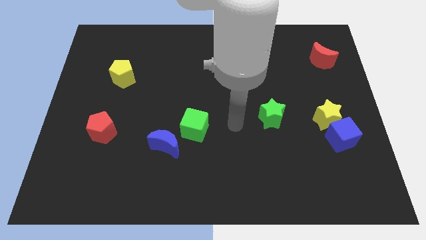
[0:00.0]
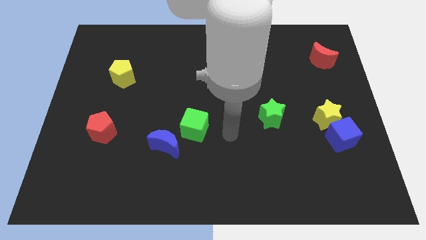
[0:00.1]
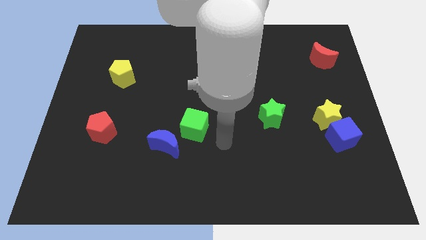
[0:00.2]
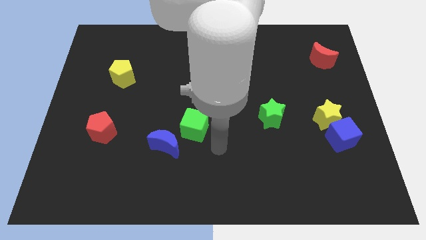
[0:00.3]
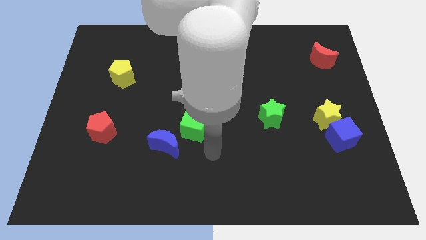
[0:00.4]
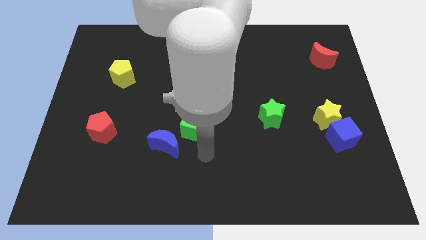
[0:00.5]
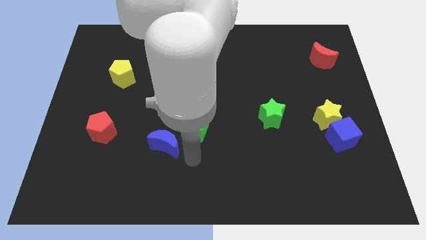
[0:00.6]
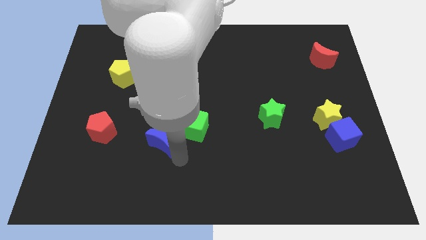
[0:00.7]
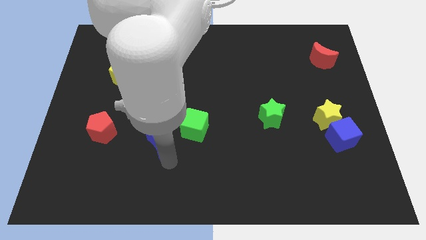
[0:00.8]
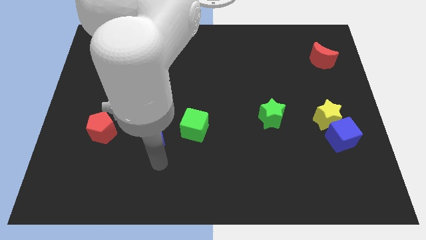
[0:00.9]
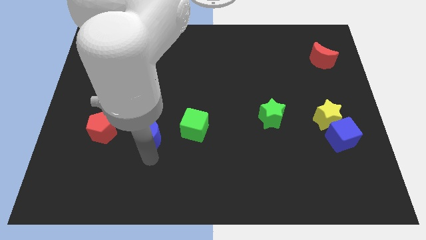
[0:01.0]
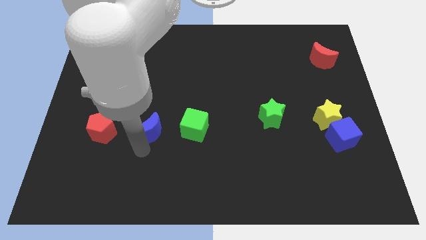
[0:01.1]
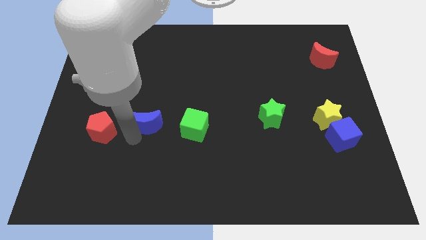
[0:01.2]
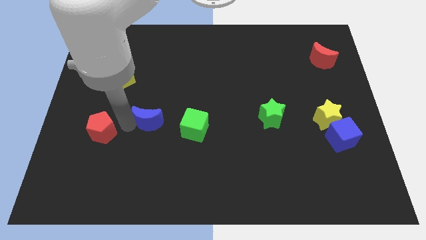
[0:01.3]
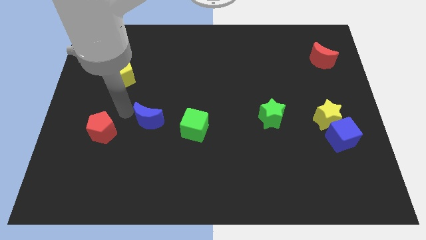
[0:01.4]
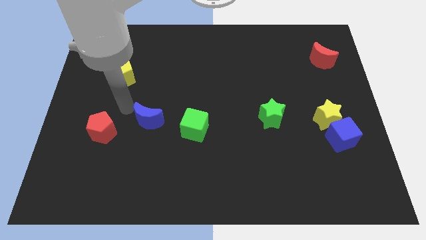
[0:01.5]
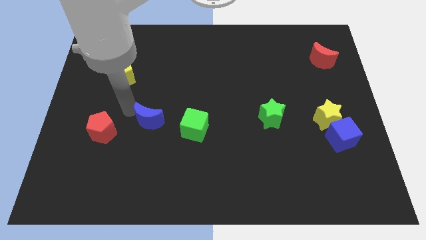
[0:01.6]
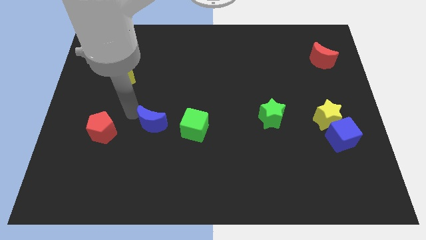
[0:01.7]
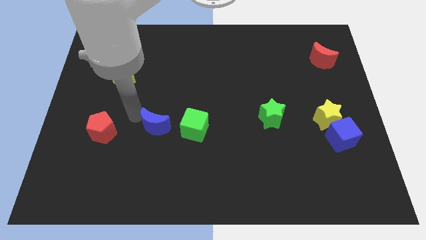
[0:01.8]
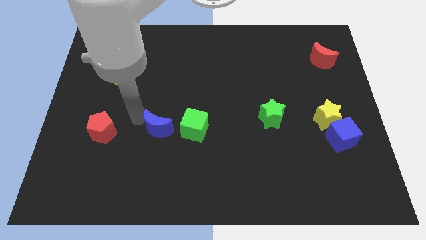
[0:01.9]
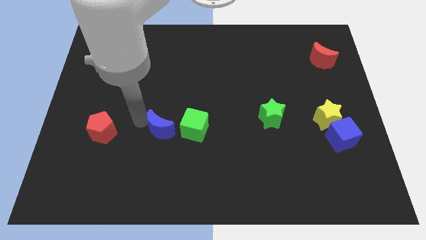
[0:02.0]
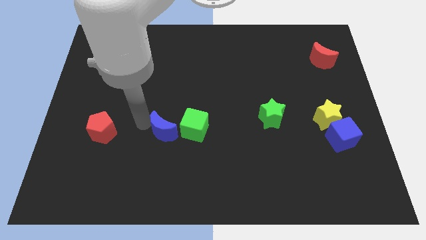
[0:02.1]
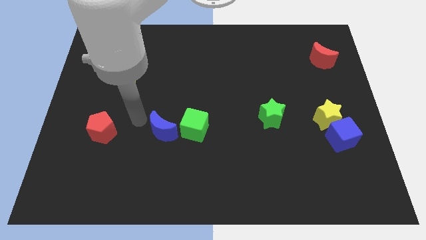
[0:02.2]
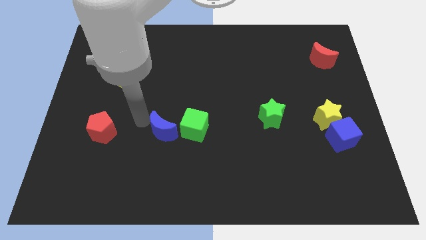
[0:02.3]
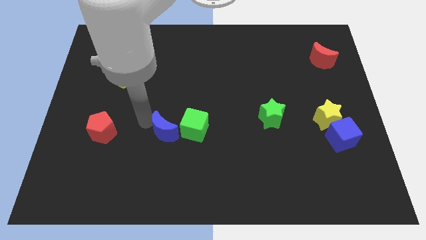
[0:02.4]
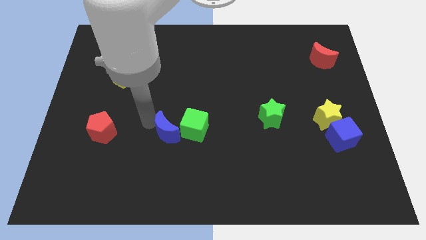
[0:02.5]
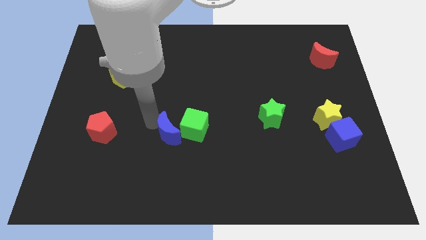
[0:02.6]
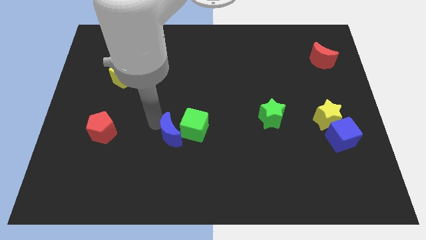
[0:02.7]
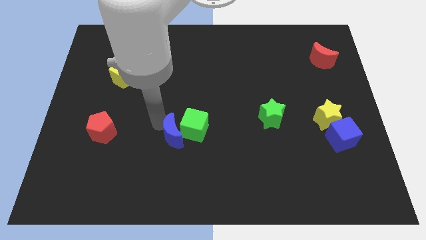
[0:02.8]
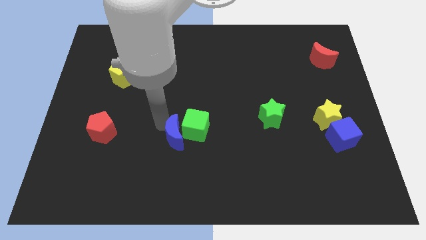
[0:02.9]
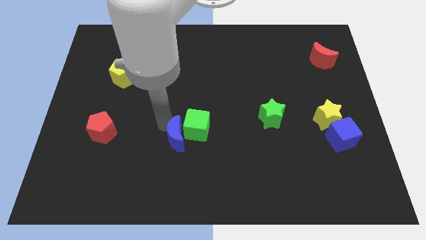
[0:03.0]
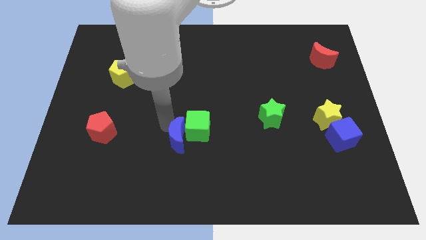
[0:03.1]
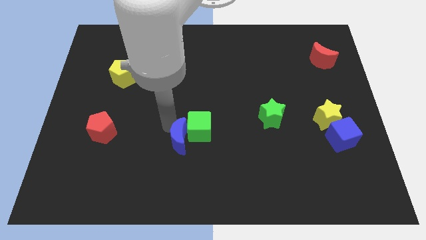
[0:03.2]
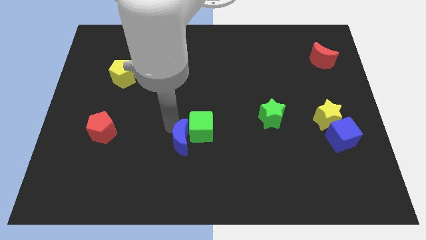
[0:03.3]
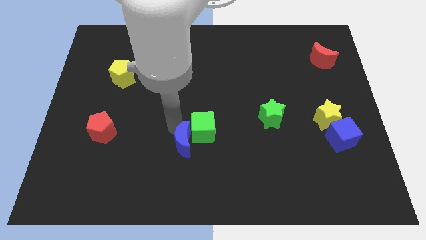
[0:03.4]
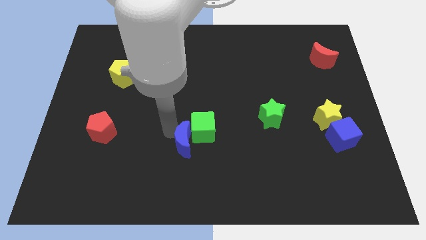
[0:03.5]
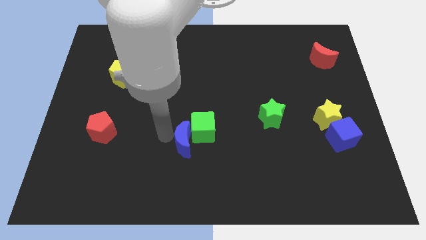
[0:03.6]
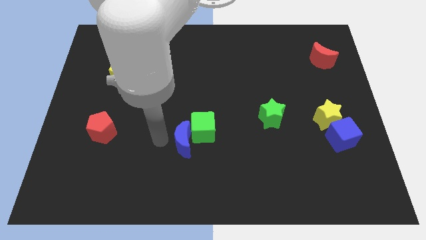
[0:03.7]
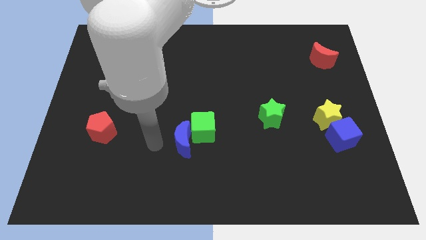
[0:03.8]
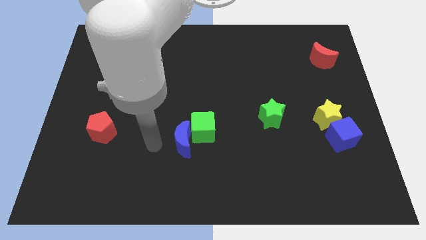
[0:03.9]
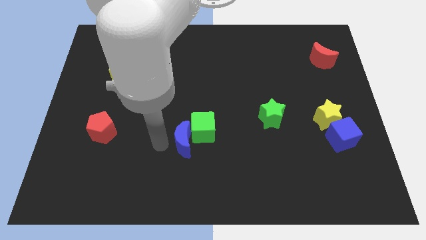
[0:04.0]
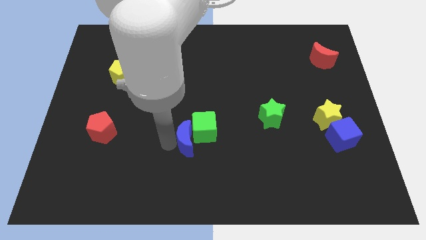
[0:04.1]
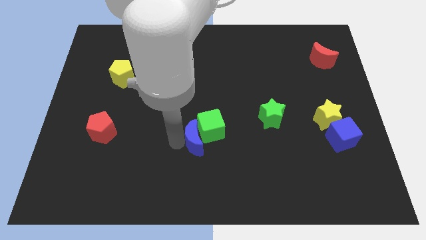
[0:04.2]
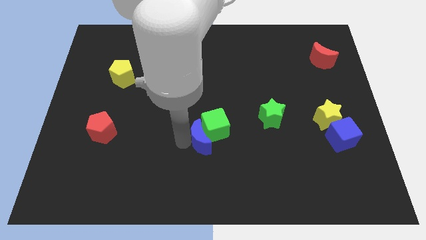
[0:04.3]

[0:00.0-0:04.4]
push the blue moon a little to the right

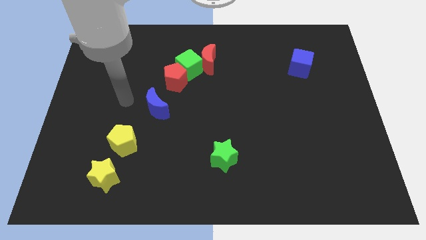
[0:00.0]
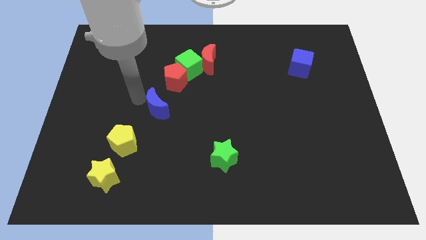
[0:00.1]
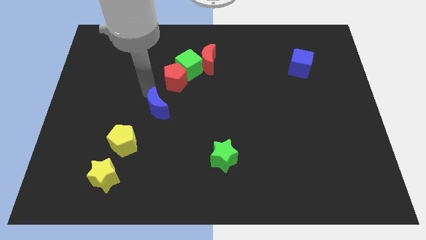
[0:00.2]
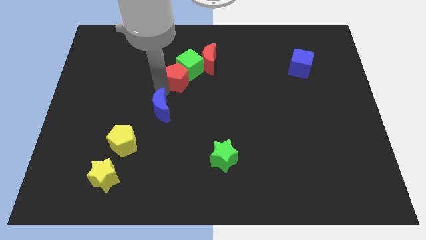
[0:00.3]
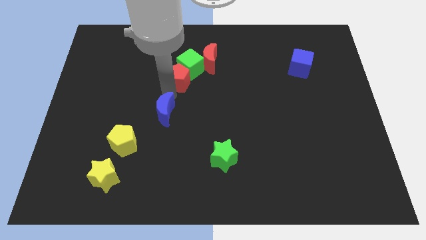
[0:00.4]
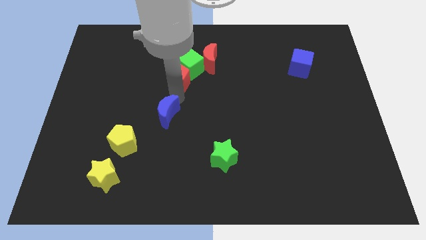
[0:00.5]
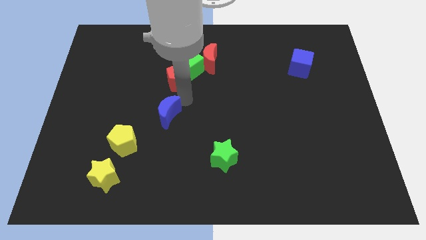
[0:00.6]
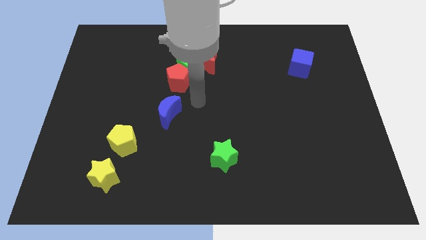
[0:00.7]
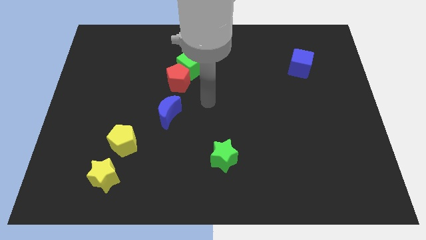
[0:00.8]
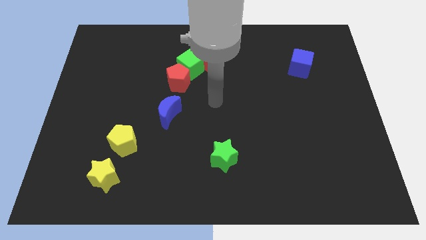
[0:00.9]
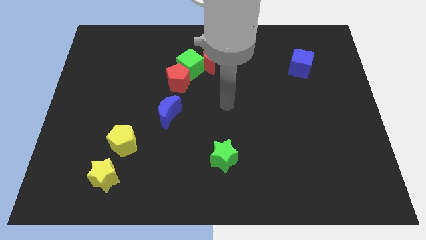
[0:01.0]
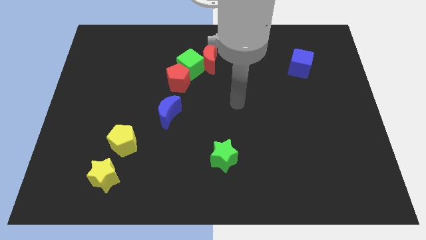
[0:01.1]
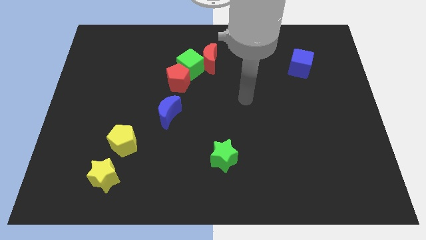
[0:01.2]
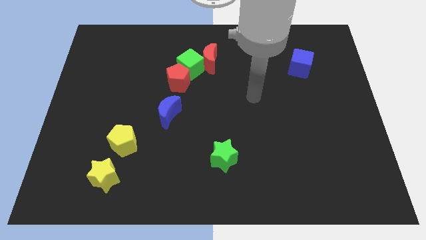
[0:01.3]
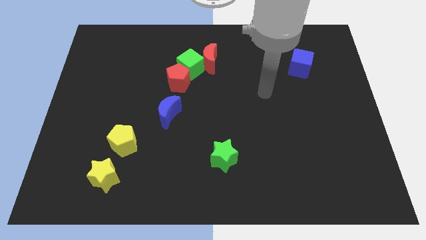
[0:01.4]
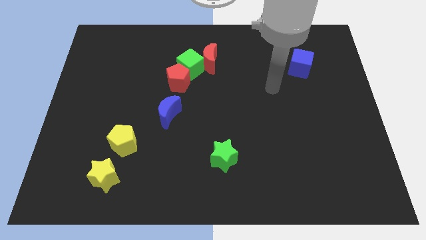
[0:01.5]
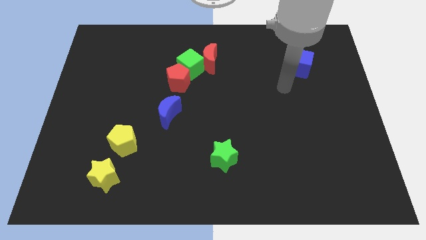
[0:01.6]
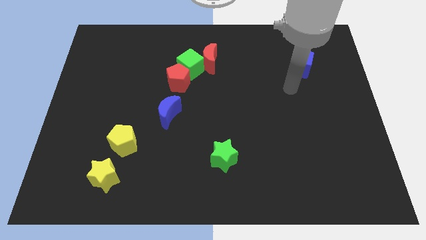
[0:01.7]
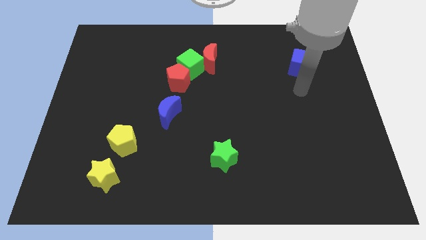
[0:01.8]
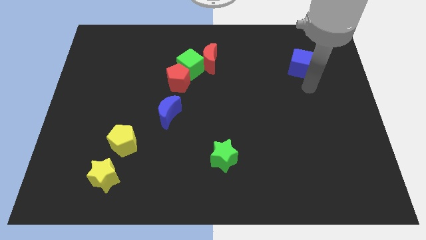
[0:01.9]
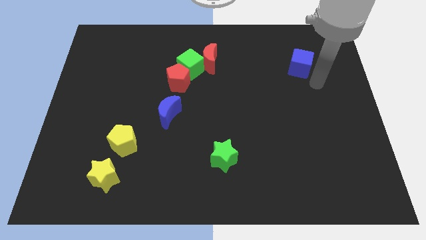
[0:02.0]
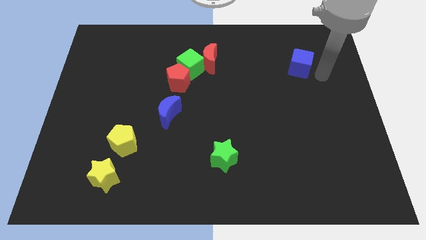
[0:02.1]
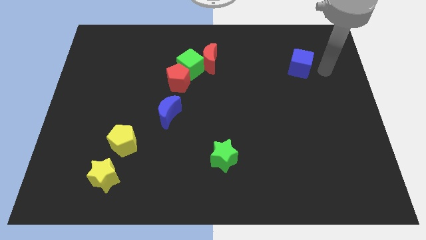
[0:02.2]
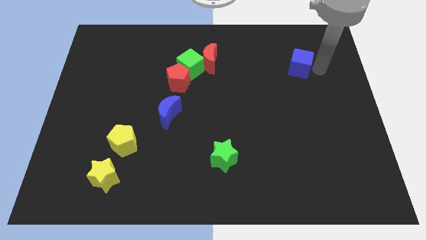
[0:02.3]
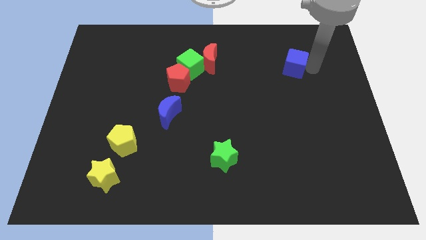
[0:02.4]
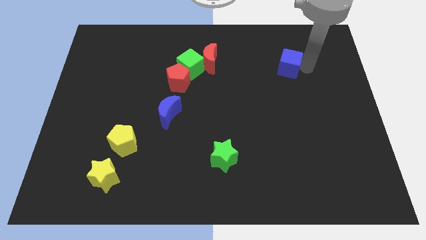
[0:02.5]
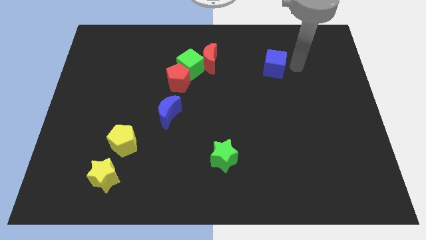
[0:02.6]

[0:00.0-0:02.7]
slide the blue cube a little to the left

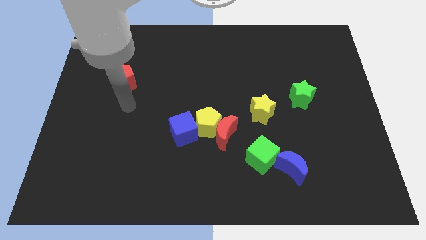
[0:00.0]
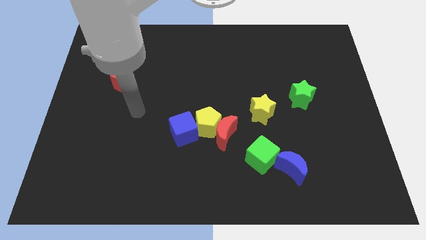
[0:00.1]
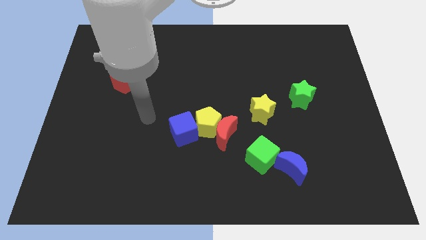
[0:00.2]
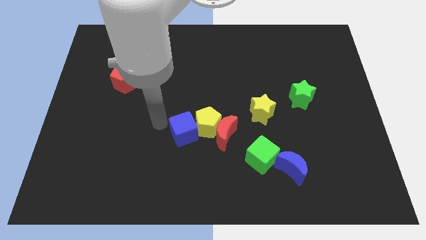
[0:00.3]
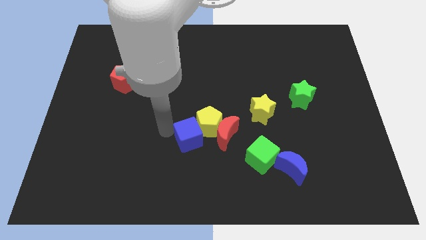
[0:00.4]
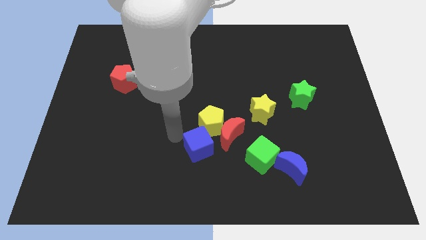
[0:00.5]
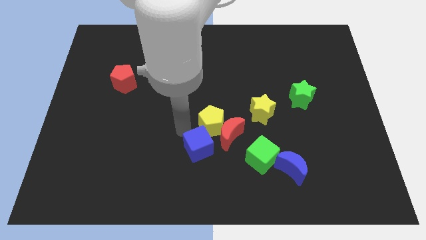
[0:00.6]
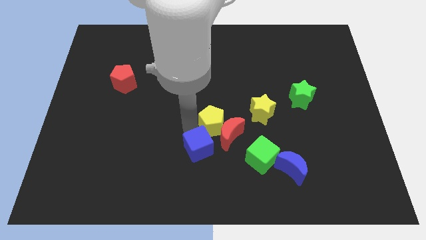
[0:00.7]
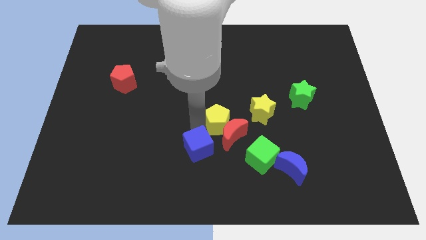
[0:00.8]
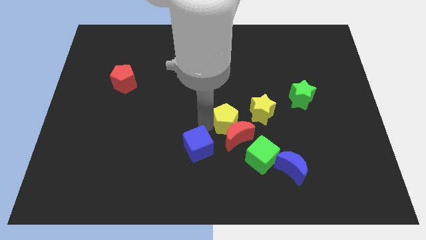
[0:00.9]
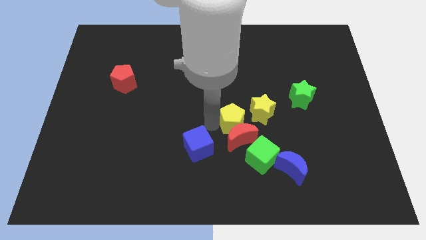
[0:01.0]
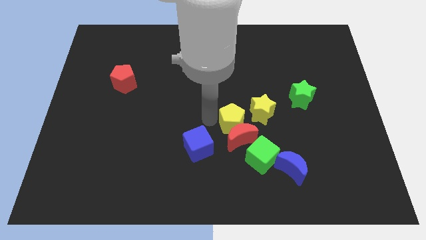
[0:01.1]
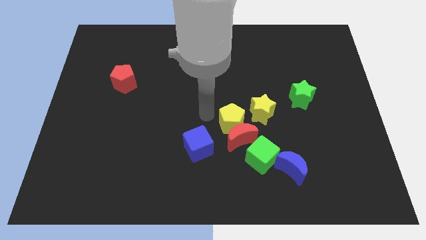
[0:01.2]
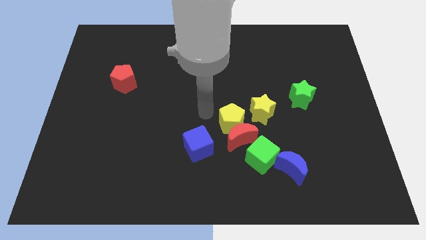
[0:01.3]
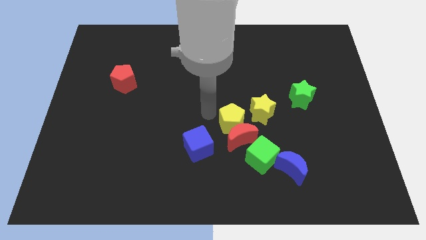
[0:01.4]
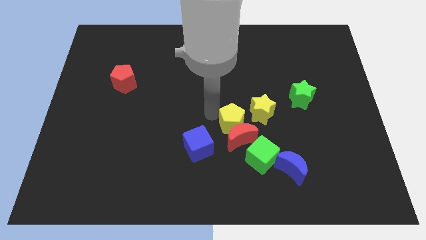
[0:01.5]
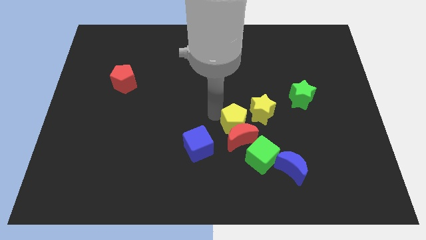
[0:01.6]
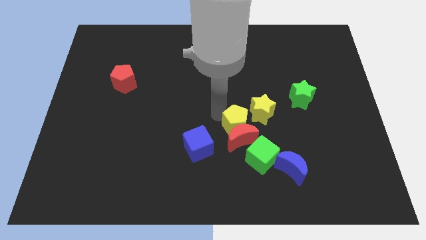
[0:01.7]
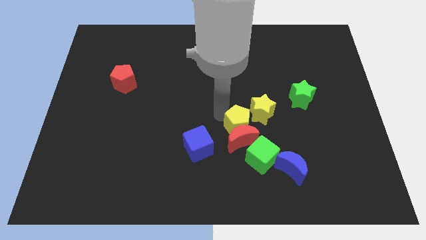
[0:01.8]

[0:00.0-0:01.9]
move the yellow pentagon a little to the right
